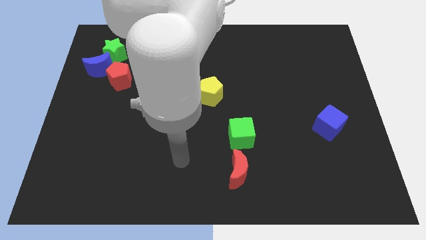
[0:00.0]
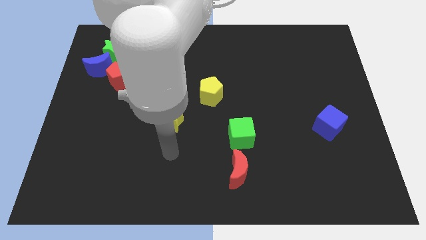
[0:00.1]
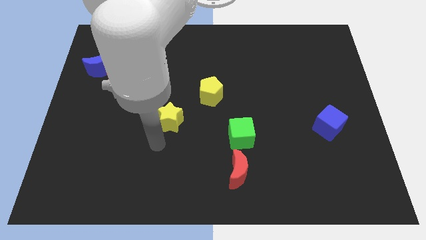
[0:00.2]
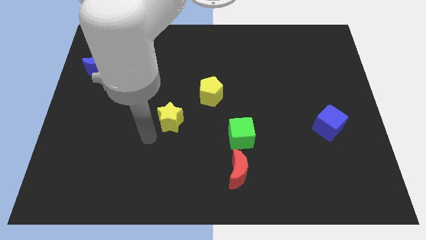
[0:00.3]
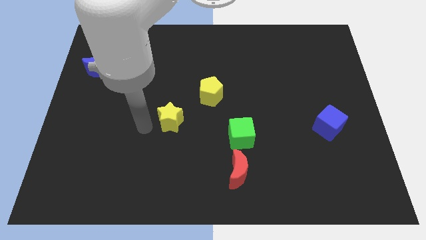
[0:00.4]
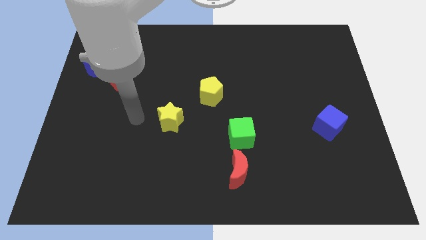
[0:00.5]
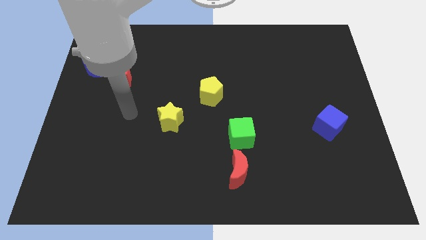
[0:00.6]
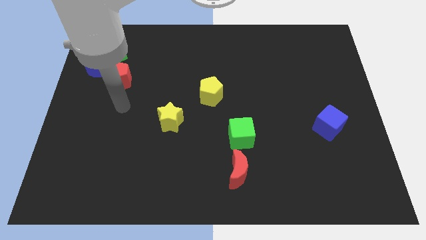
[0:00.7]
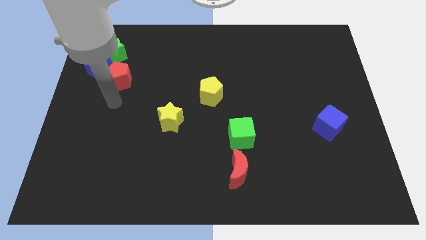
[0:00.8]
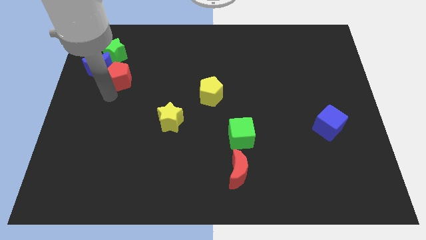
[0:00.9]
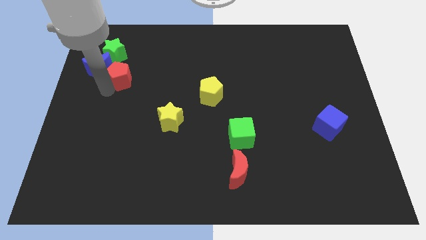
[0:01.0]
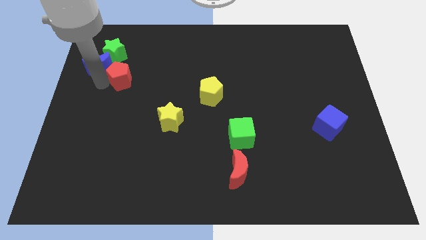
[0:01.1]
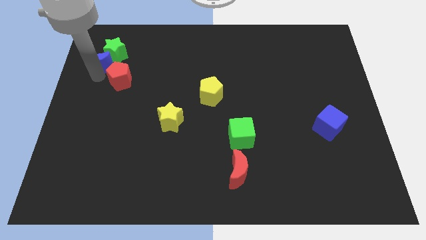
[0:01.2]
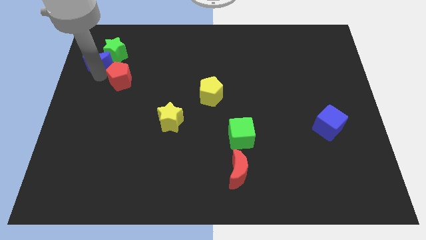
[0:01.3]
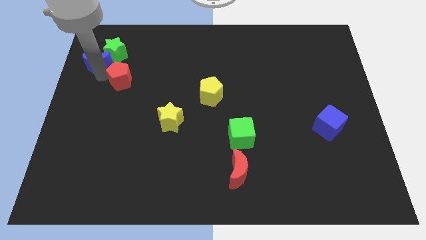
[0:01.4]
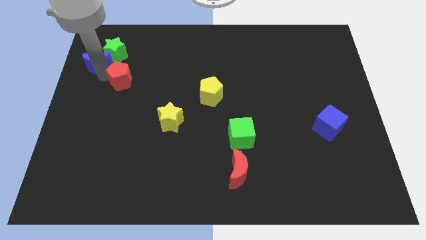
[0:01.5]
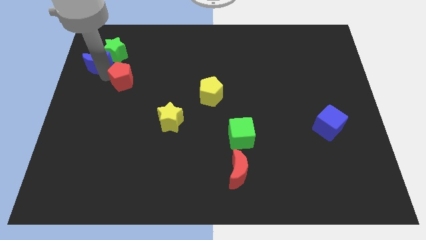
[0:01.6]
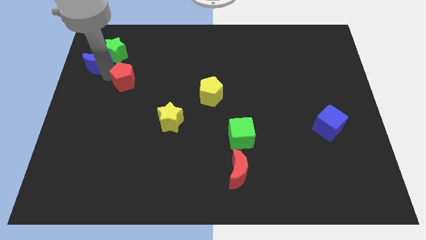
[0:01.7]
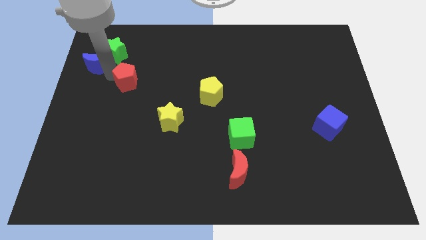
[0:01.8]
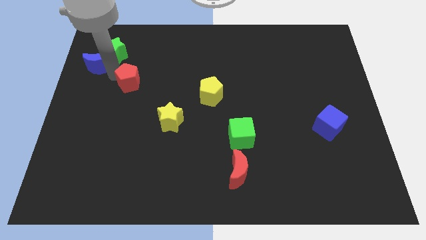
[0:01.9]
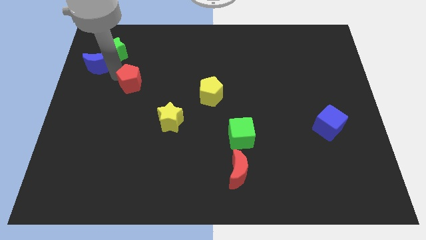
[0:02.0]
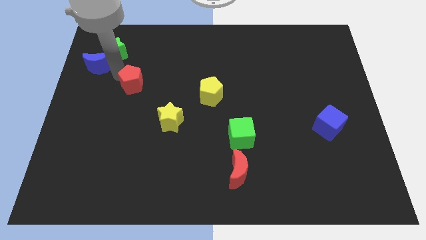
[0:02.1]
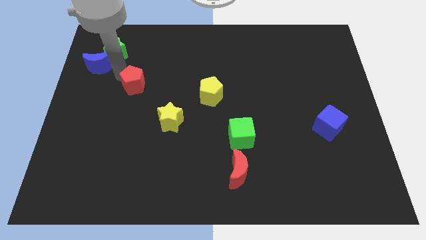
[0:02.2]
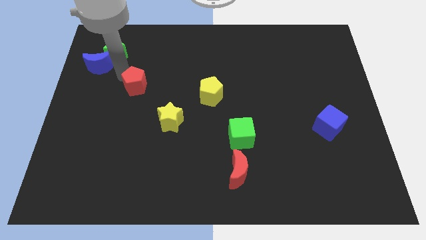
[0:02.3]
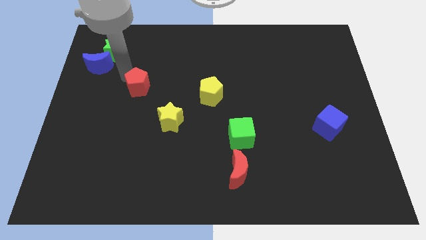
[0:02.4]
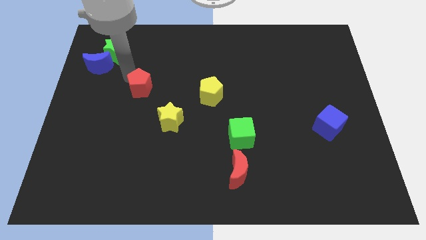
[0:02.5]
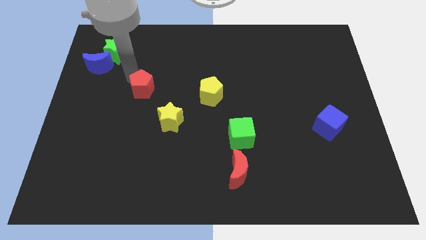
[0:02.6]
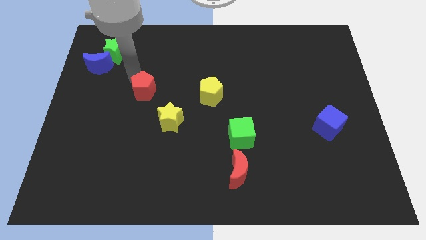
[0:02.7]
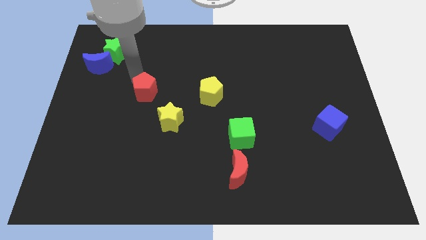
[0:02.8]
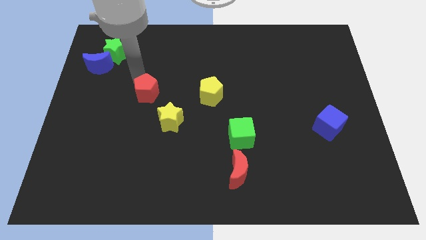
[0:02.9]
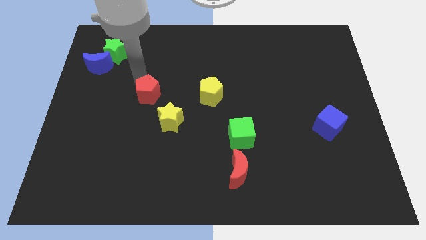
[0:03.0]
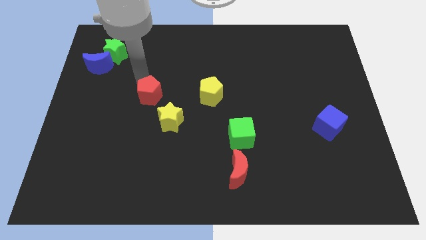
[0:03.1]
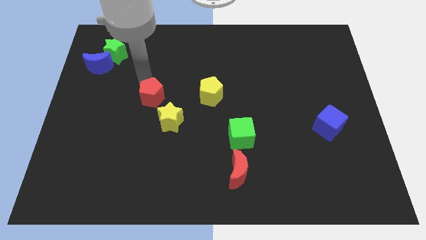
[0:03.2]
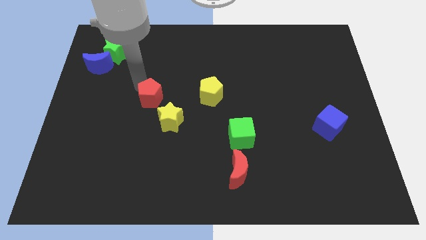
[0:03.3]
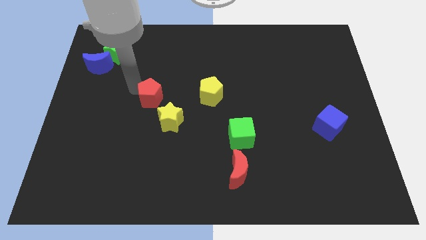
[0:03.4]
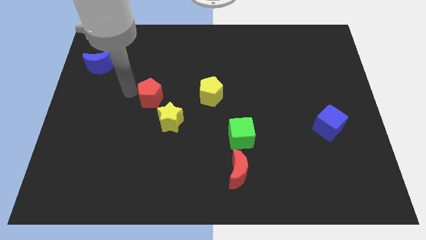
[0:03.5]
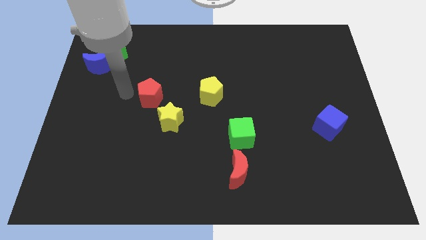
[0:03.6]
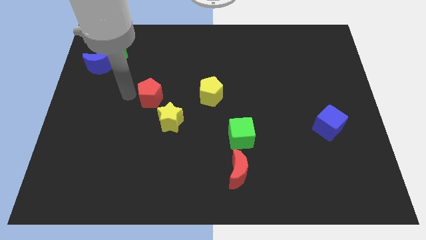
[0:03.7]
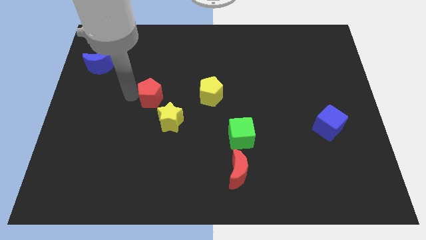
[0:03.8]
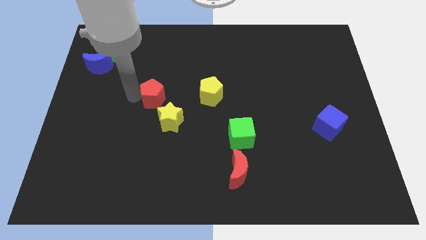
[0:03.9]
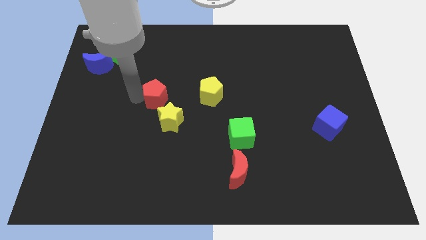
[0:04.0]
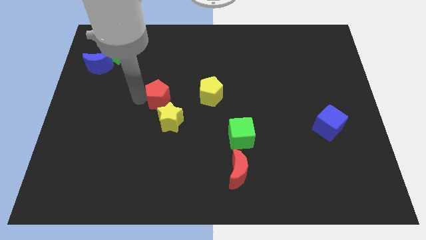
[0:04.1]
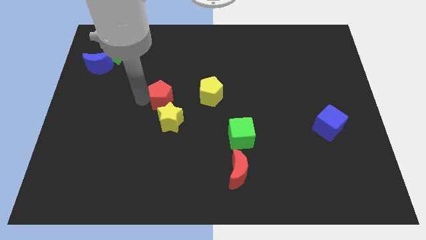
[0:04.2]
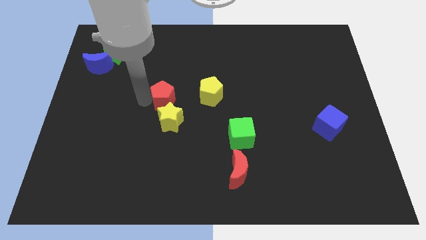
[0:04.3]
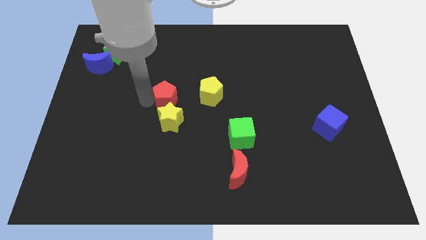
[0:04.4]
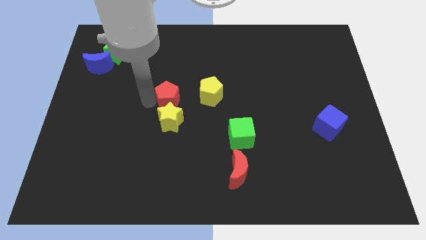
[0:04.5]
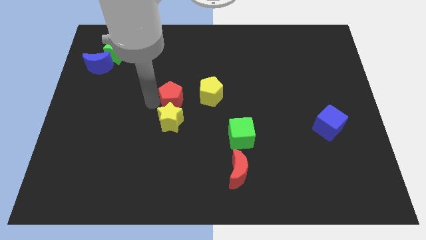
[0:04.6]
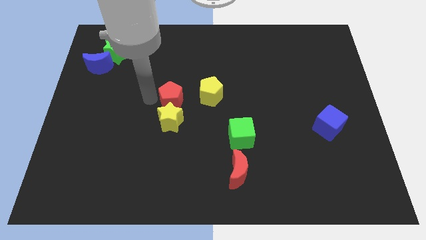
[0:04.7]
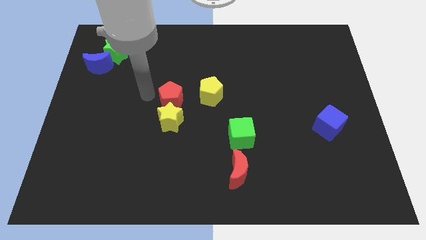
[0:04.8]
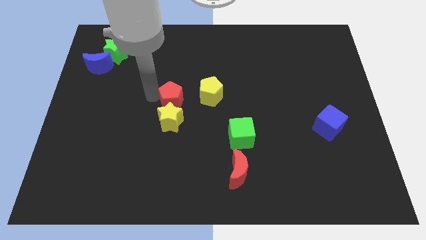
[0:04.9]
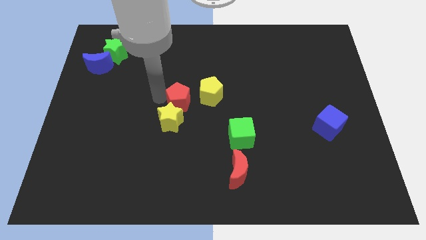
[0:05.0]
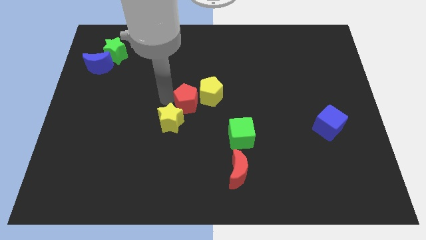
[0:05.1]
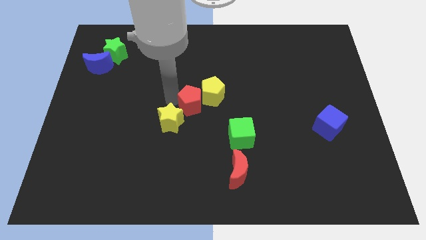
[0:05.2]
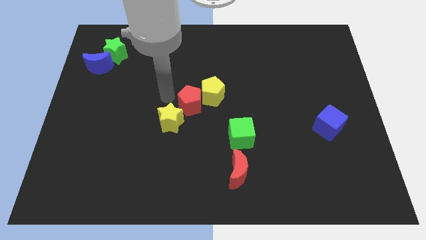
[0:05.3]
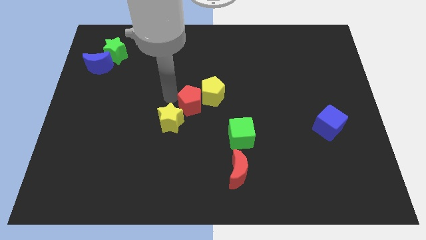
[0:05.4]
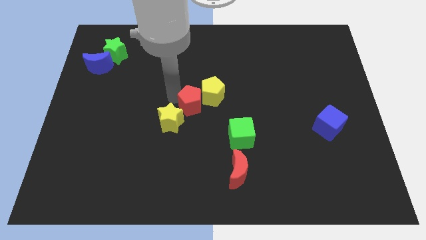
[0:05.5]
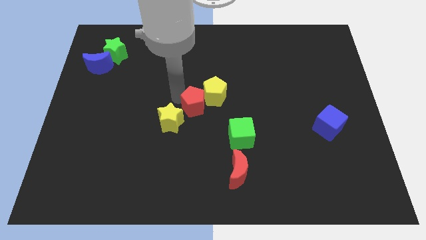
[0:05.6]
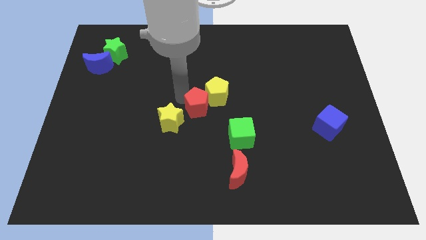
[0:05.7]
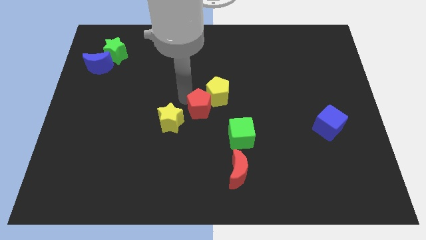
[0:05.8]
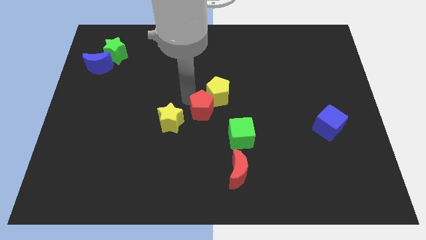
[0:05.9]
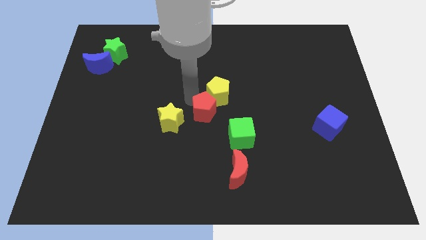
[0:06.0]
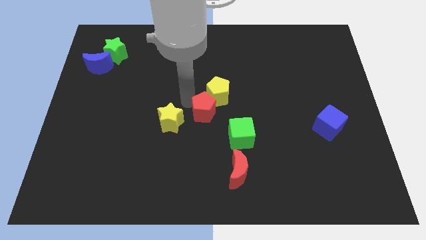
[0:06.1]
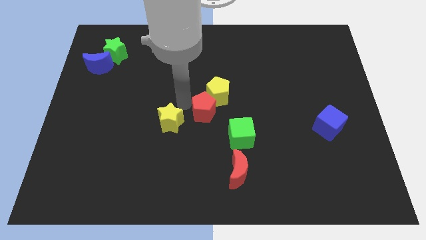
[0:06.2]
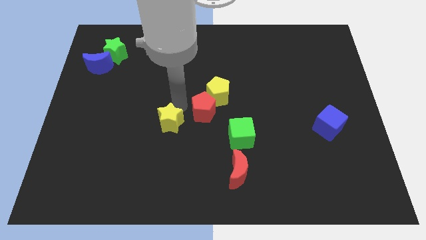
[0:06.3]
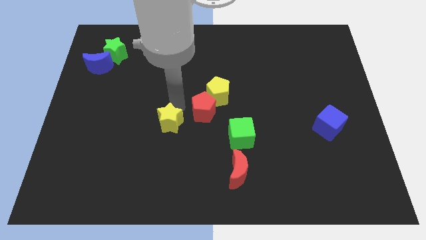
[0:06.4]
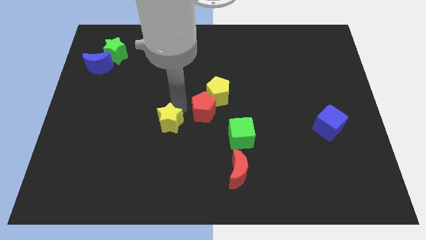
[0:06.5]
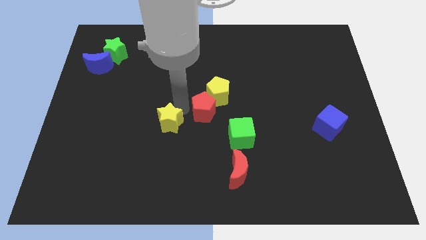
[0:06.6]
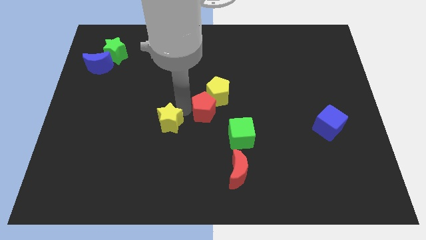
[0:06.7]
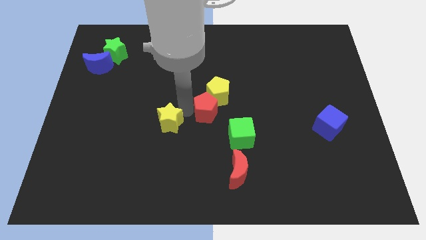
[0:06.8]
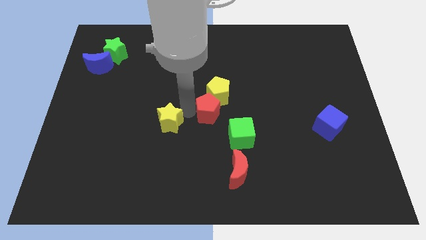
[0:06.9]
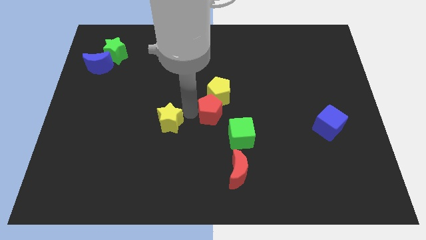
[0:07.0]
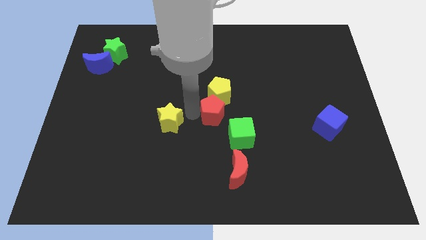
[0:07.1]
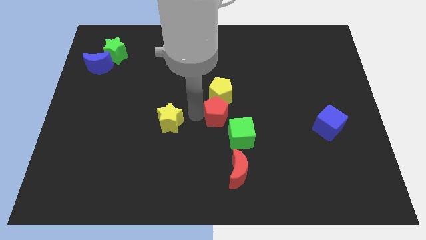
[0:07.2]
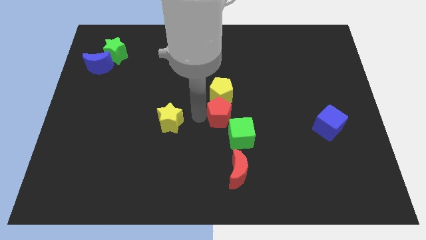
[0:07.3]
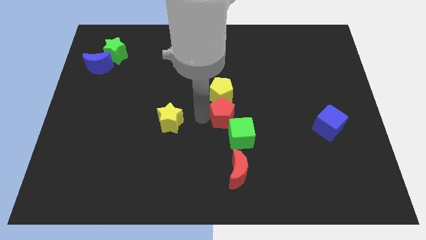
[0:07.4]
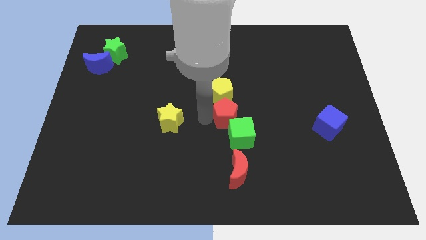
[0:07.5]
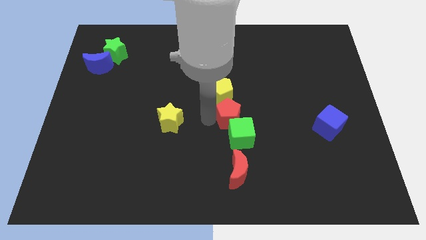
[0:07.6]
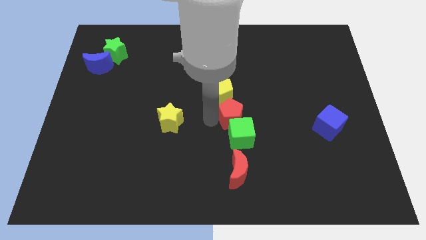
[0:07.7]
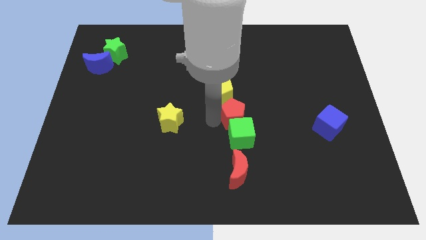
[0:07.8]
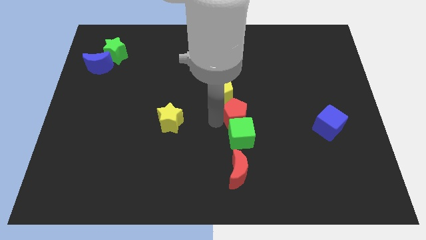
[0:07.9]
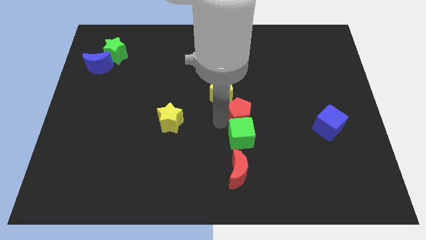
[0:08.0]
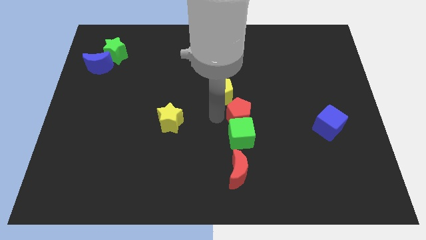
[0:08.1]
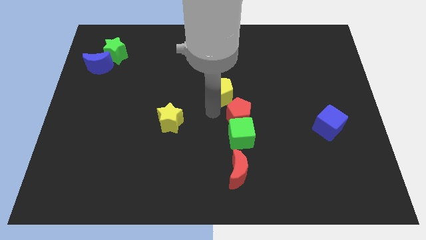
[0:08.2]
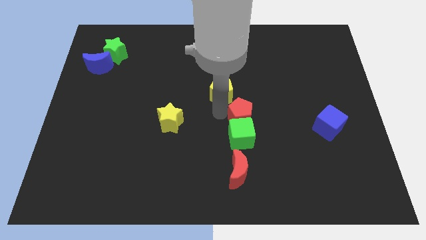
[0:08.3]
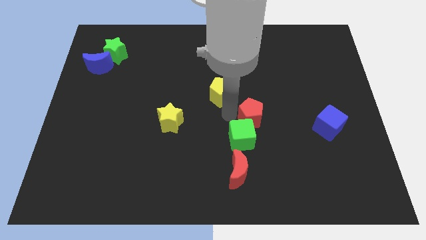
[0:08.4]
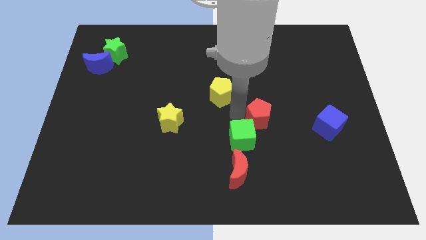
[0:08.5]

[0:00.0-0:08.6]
put the red pentagon to the left of the blue cube
